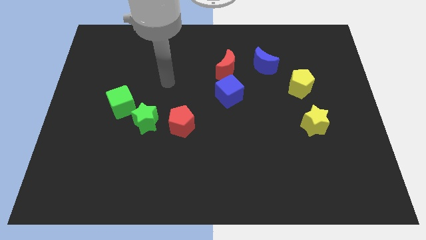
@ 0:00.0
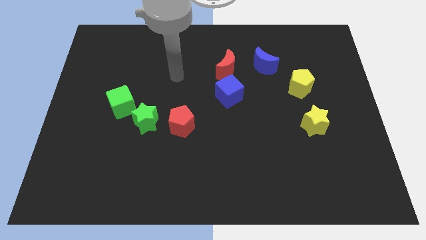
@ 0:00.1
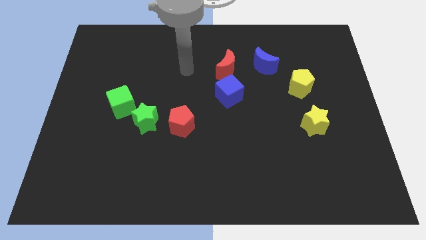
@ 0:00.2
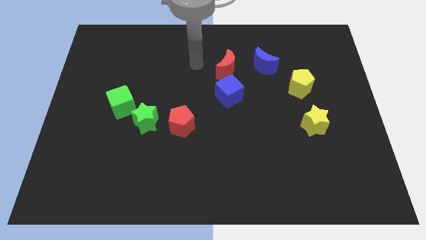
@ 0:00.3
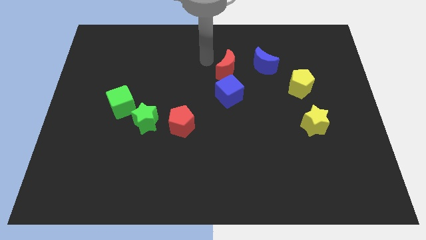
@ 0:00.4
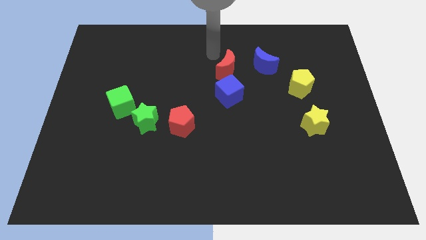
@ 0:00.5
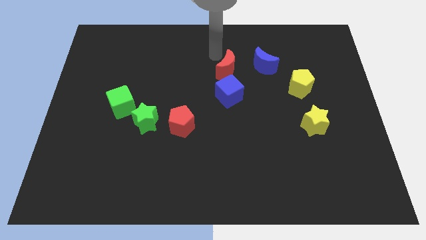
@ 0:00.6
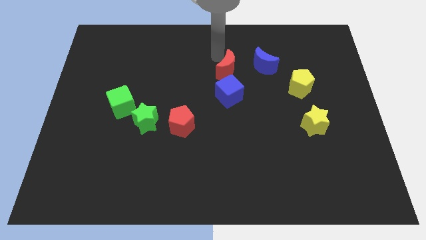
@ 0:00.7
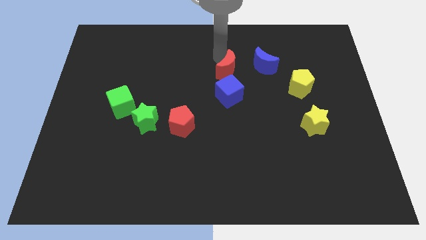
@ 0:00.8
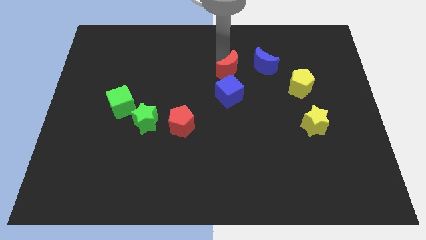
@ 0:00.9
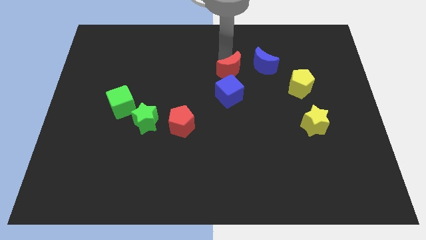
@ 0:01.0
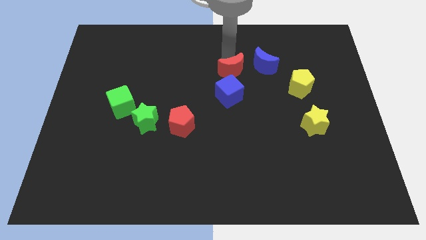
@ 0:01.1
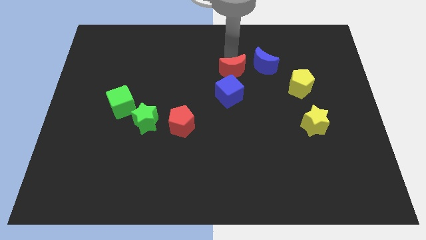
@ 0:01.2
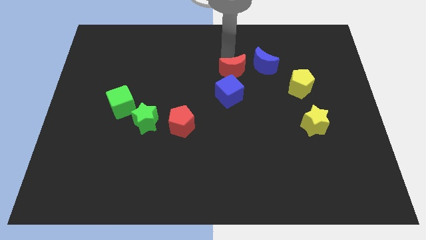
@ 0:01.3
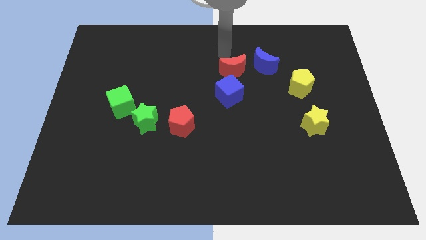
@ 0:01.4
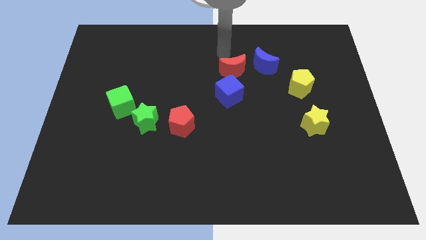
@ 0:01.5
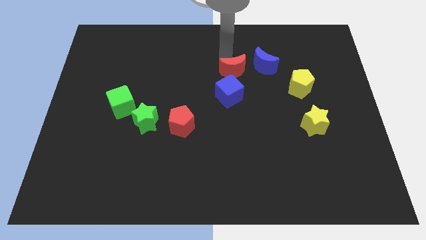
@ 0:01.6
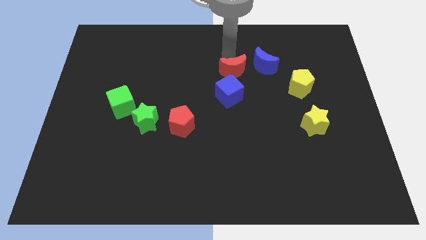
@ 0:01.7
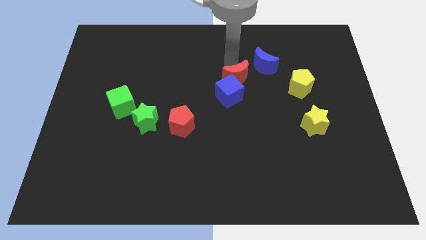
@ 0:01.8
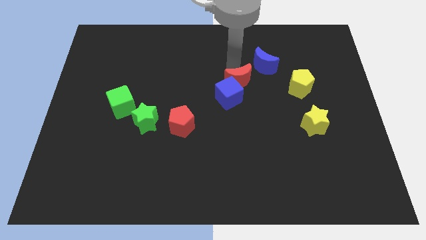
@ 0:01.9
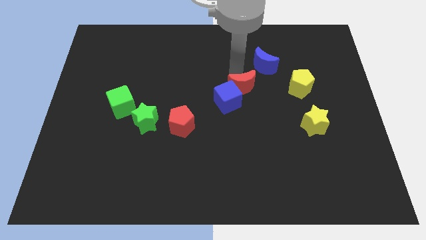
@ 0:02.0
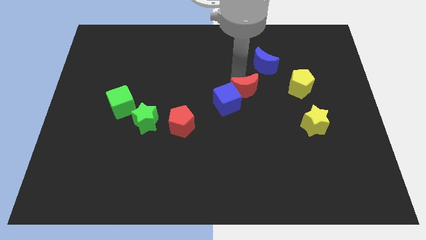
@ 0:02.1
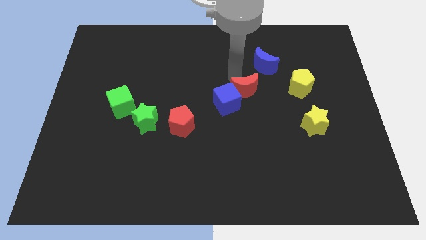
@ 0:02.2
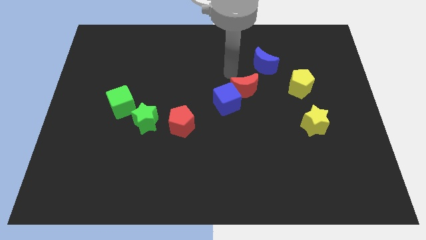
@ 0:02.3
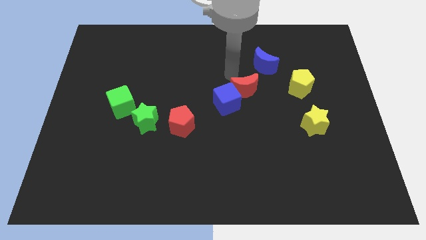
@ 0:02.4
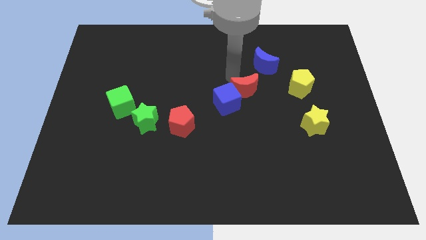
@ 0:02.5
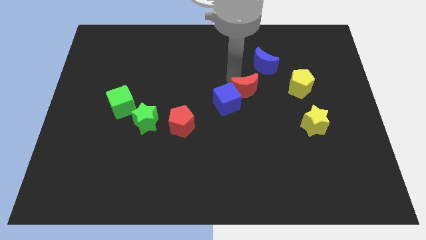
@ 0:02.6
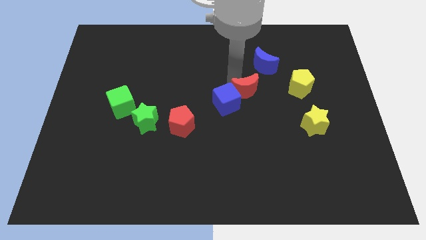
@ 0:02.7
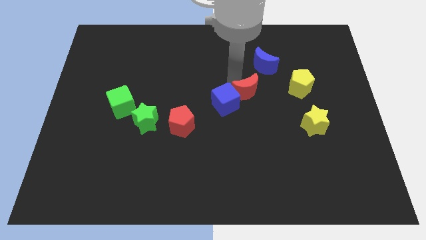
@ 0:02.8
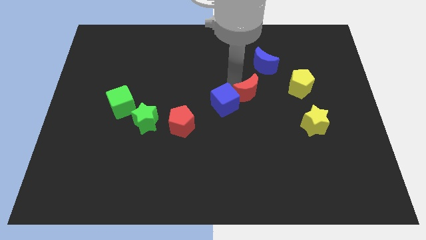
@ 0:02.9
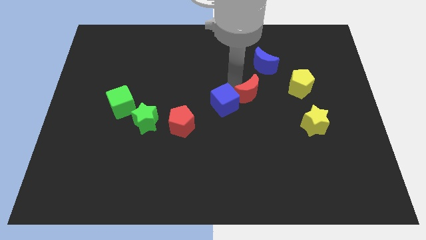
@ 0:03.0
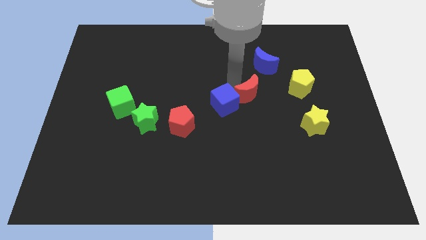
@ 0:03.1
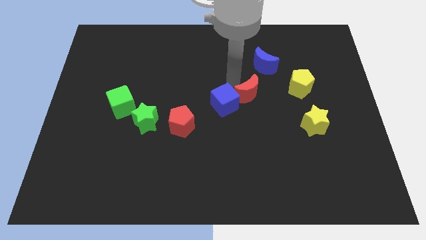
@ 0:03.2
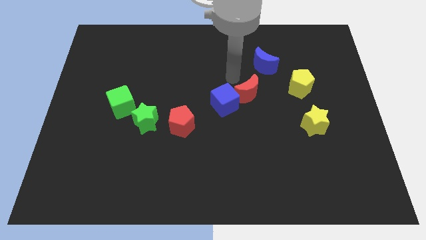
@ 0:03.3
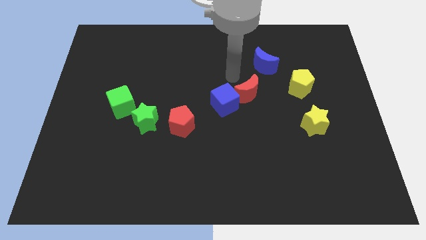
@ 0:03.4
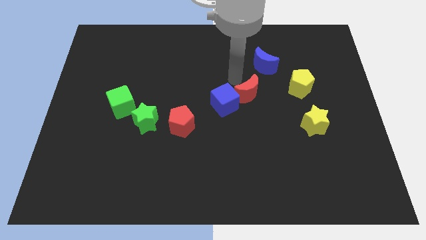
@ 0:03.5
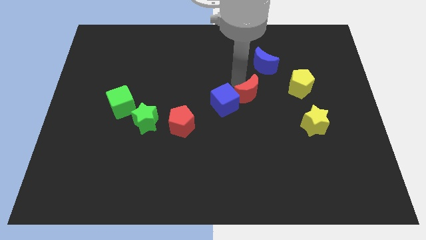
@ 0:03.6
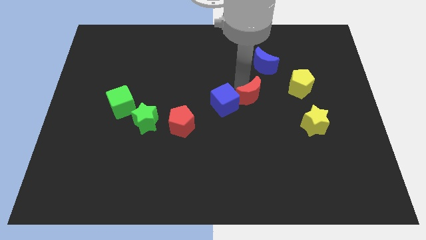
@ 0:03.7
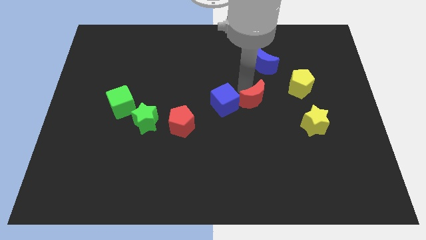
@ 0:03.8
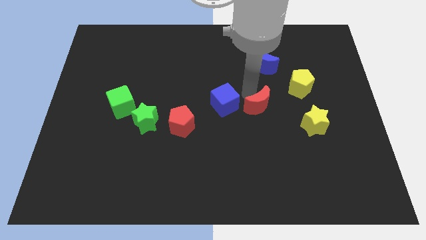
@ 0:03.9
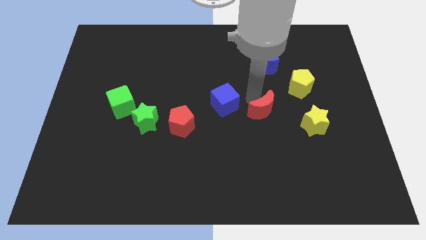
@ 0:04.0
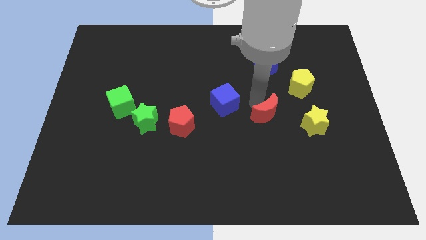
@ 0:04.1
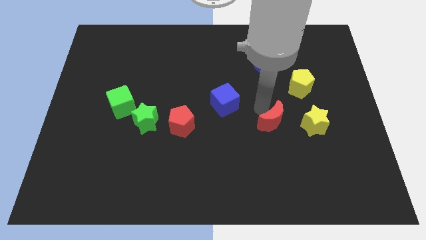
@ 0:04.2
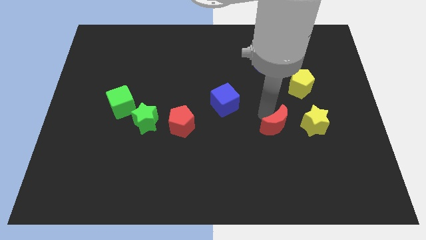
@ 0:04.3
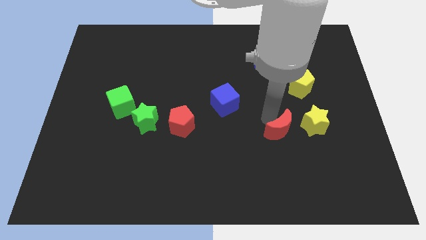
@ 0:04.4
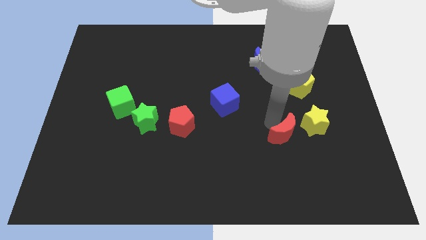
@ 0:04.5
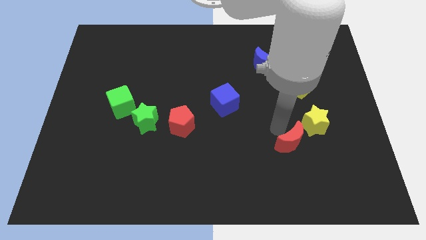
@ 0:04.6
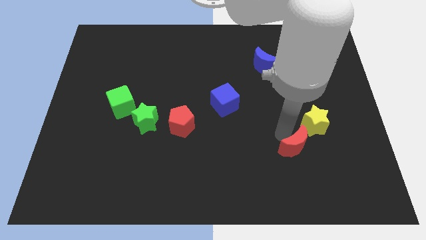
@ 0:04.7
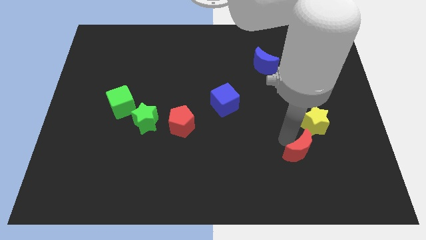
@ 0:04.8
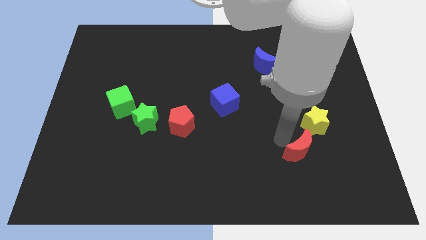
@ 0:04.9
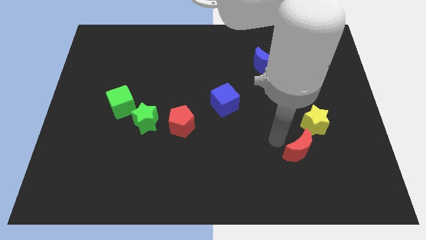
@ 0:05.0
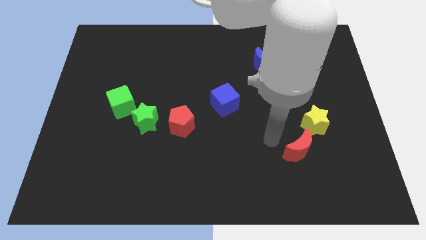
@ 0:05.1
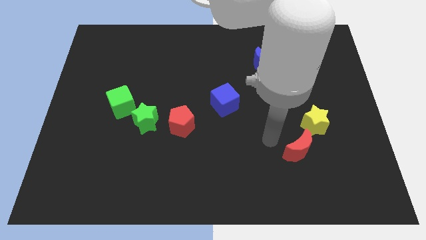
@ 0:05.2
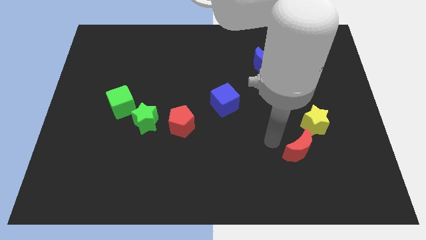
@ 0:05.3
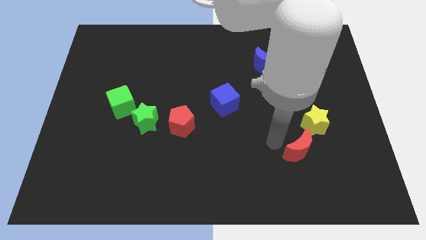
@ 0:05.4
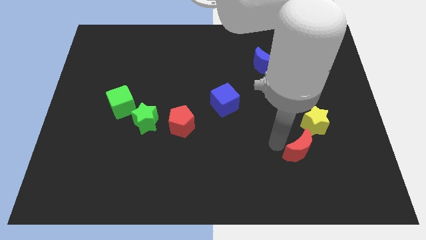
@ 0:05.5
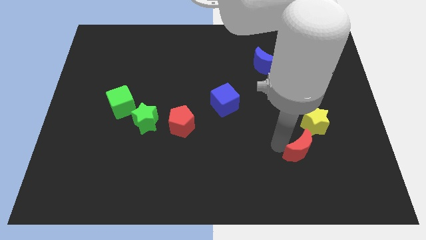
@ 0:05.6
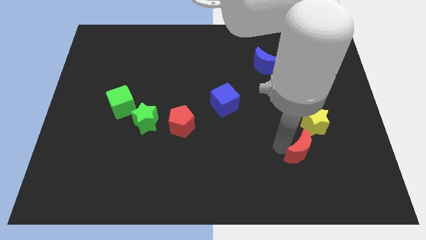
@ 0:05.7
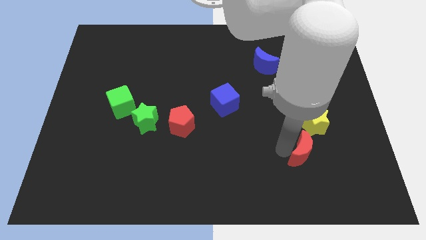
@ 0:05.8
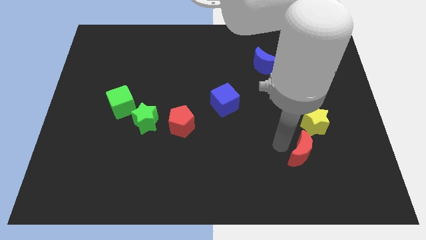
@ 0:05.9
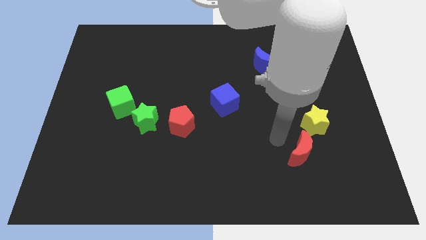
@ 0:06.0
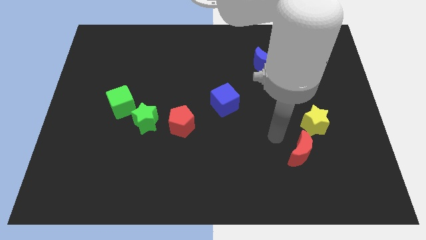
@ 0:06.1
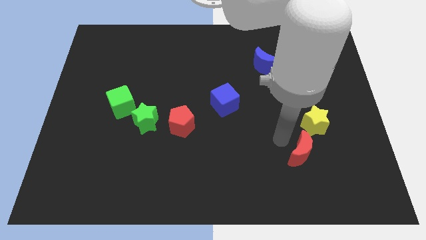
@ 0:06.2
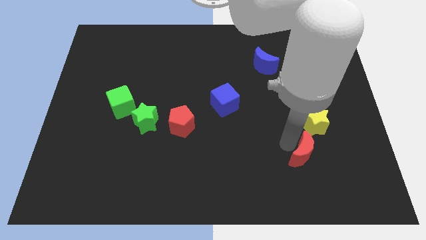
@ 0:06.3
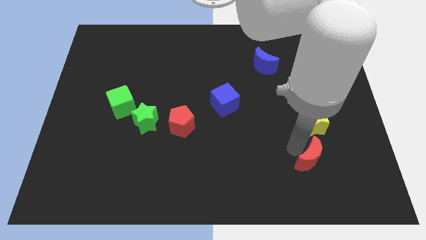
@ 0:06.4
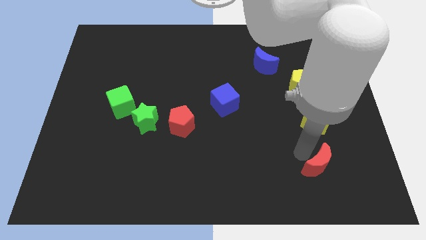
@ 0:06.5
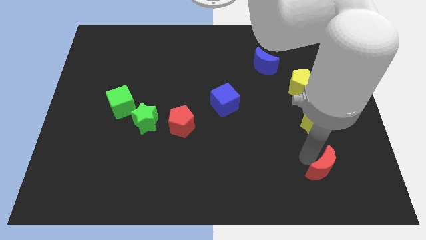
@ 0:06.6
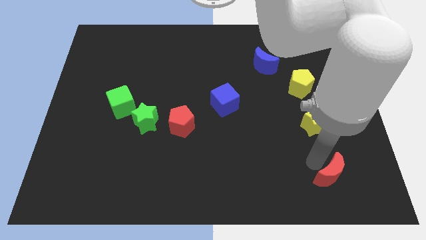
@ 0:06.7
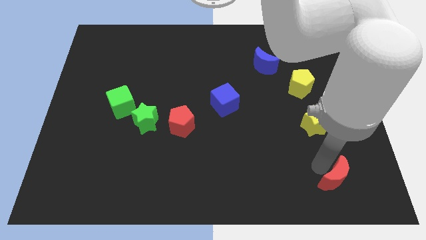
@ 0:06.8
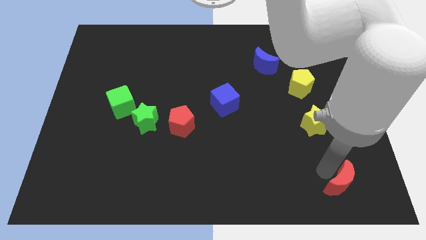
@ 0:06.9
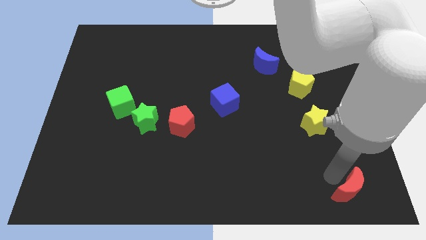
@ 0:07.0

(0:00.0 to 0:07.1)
slide the red moon to the lower right corner
